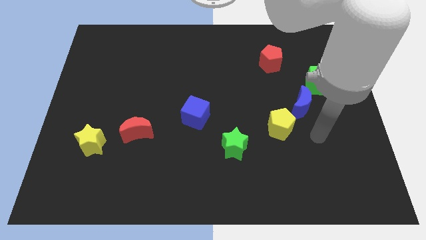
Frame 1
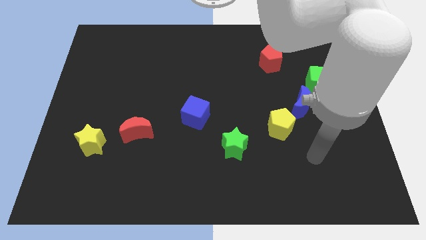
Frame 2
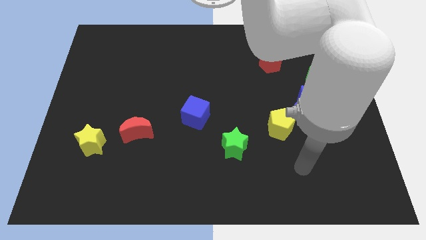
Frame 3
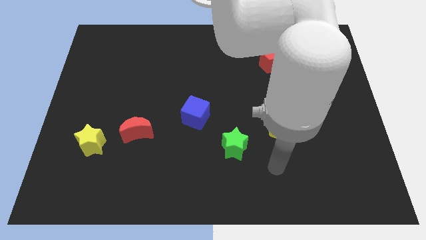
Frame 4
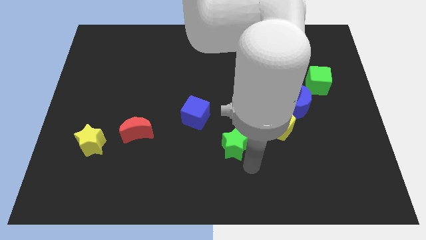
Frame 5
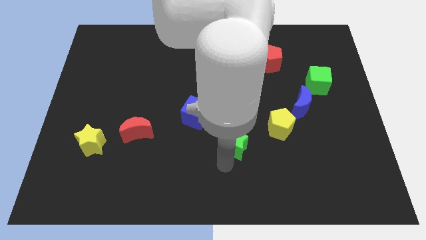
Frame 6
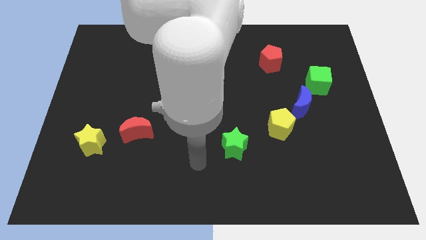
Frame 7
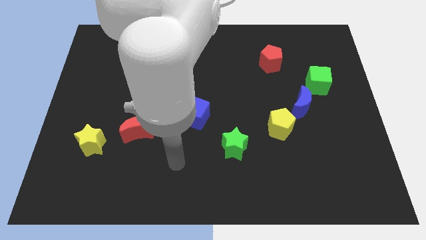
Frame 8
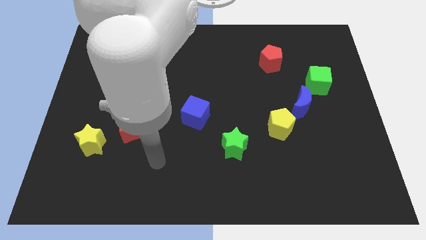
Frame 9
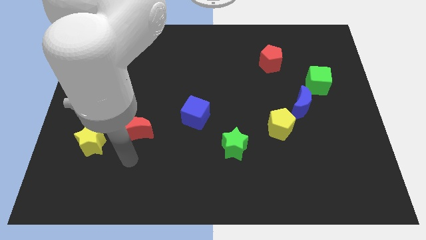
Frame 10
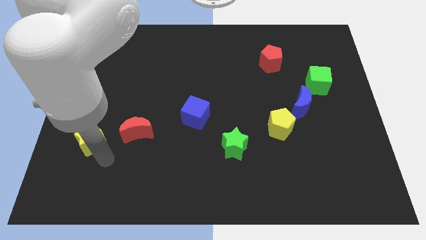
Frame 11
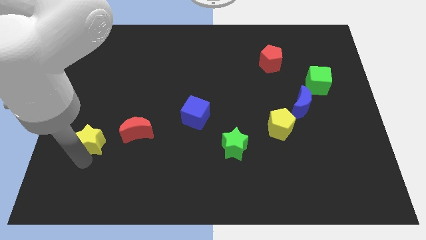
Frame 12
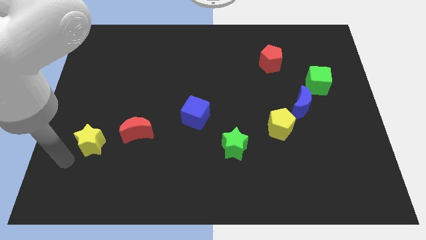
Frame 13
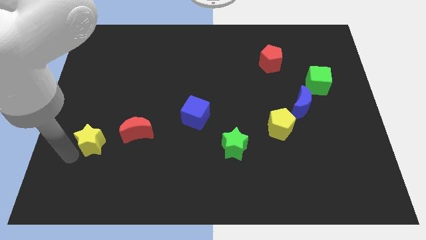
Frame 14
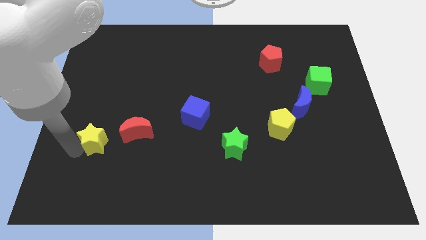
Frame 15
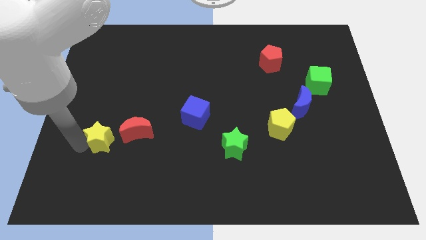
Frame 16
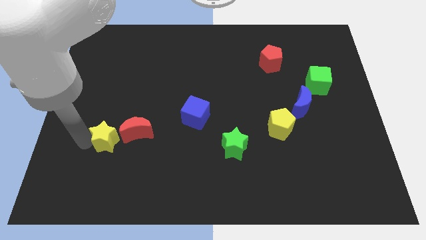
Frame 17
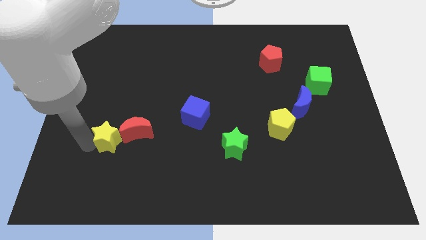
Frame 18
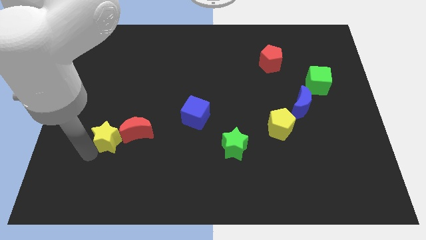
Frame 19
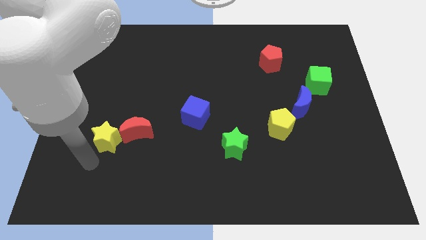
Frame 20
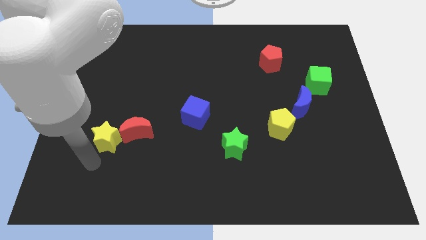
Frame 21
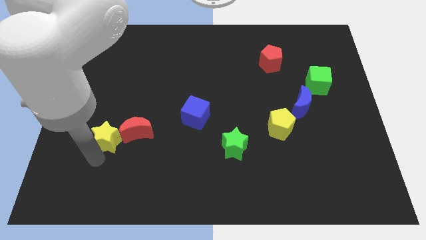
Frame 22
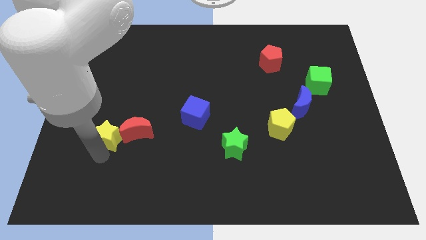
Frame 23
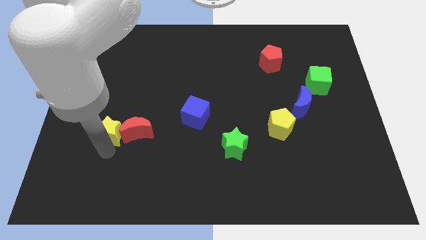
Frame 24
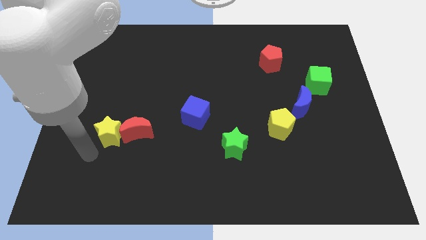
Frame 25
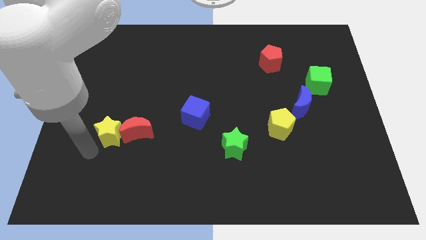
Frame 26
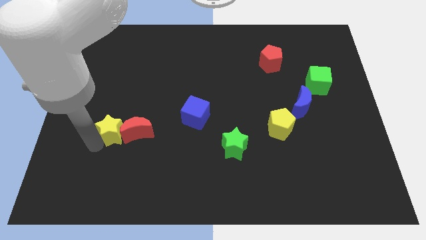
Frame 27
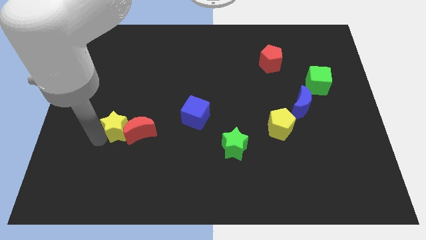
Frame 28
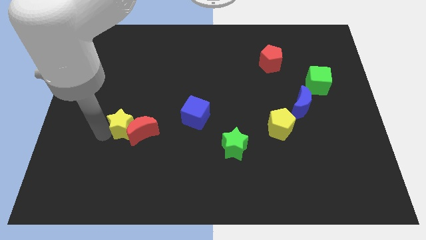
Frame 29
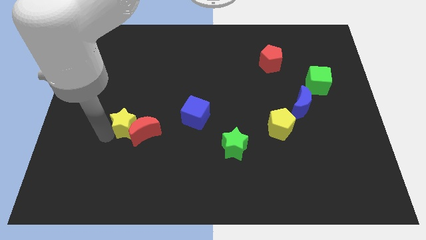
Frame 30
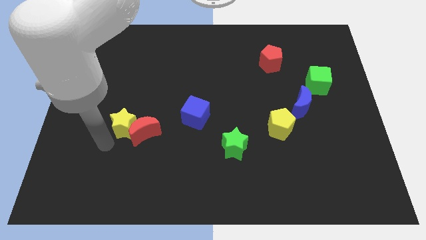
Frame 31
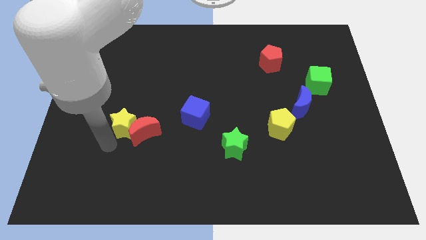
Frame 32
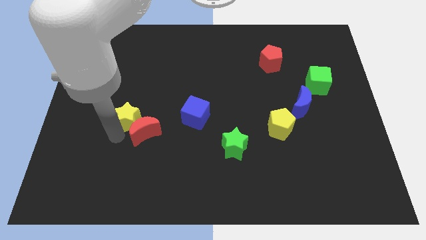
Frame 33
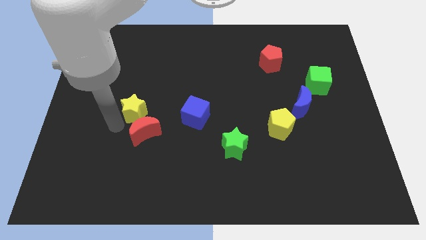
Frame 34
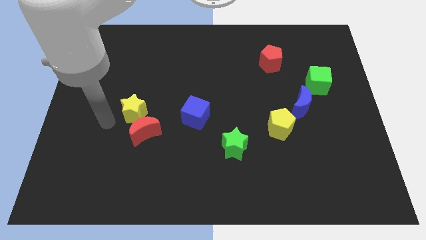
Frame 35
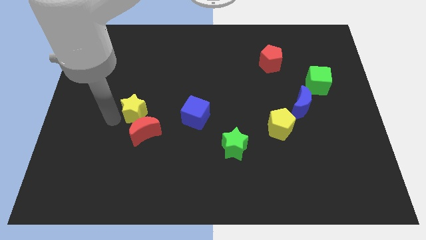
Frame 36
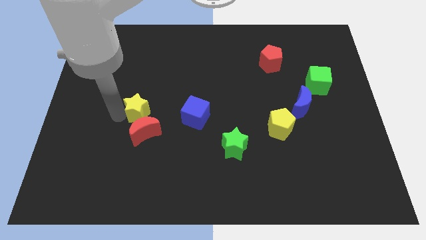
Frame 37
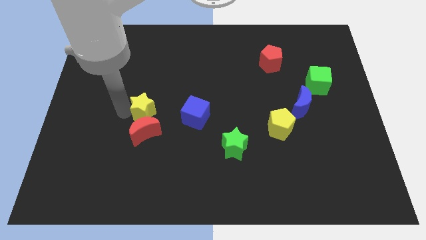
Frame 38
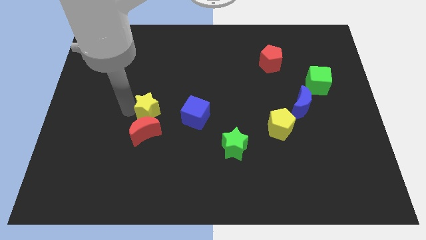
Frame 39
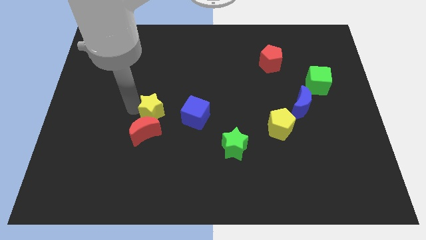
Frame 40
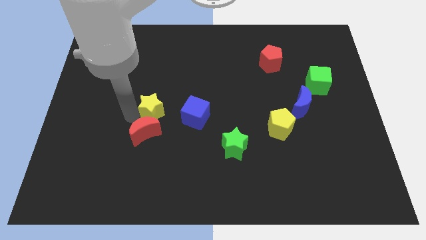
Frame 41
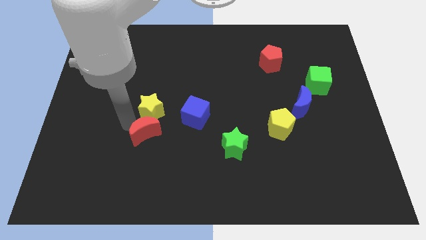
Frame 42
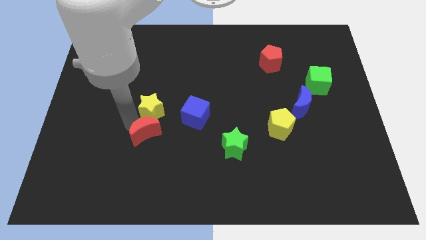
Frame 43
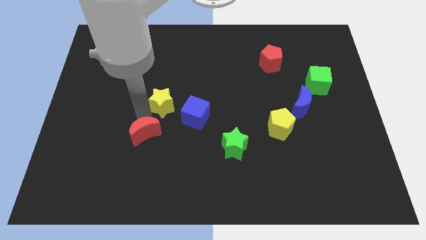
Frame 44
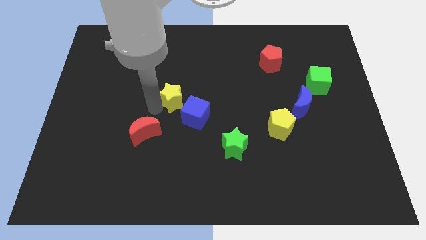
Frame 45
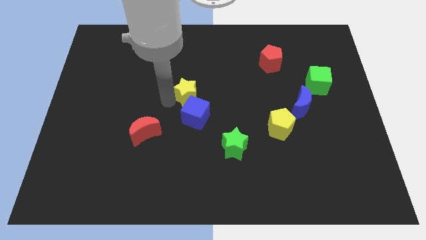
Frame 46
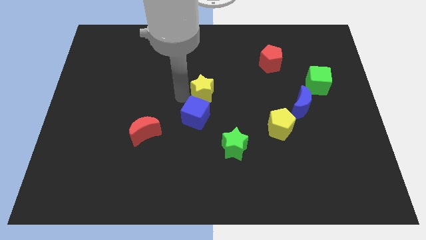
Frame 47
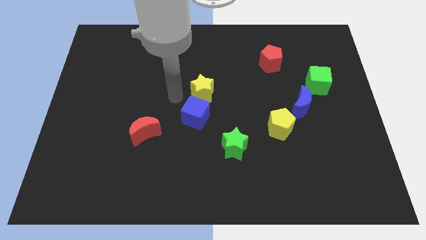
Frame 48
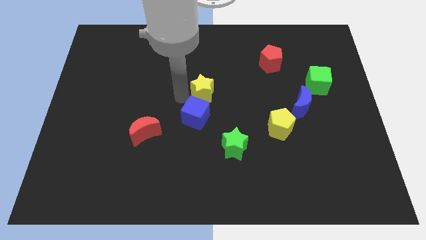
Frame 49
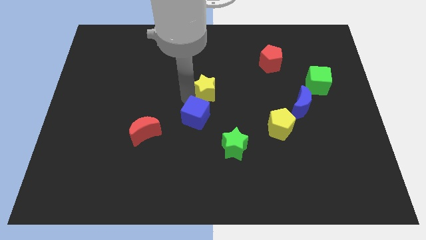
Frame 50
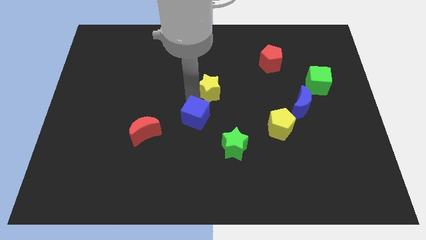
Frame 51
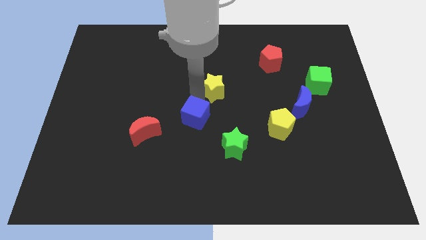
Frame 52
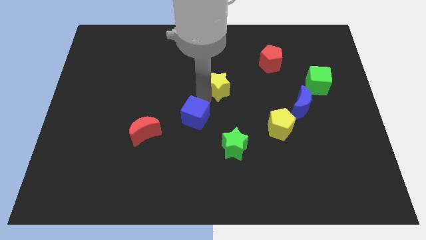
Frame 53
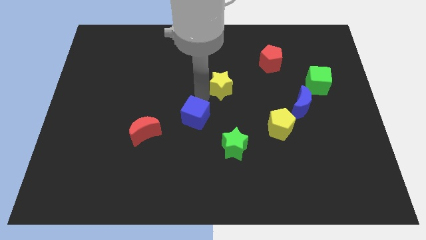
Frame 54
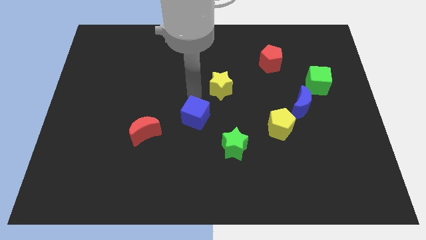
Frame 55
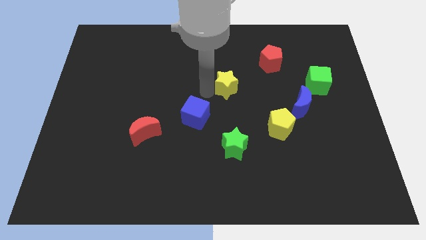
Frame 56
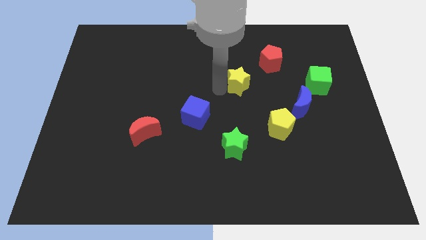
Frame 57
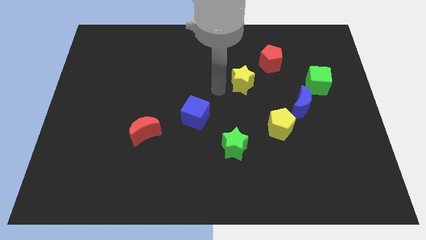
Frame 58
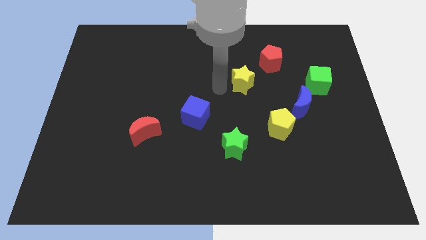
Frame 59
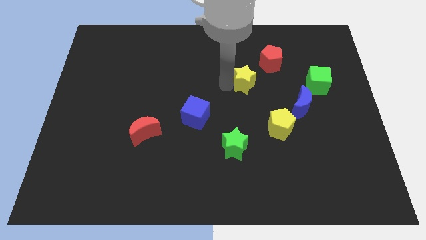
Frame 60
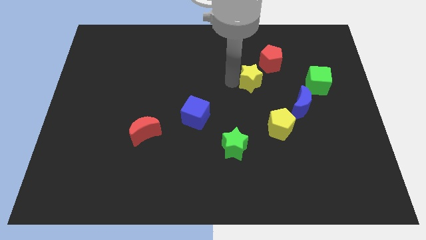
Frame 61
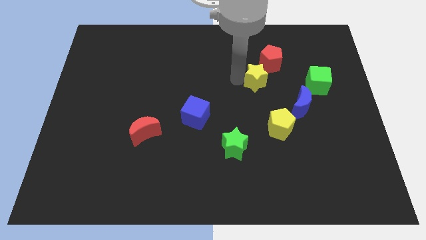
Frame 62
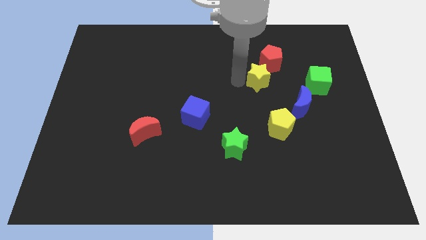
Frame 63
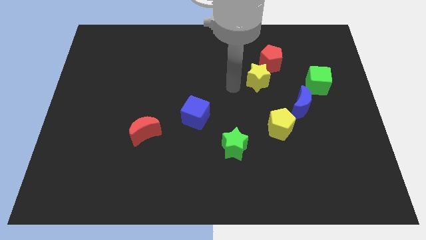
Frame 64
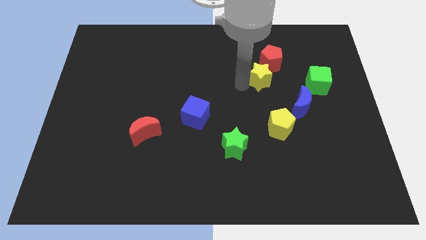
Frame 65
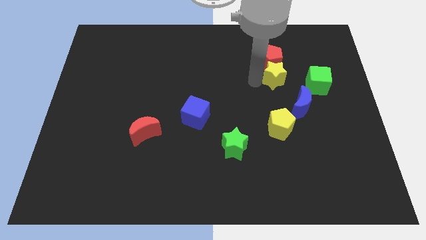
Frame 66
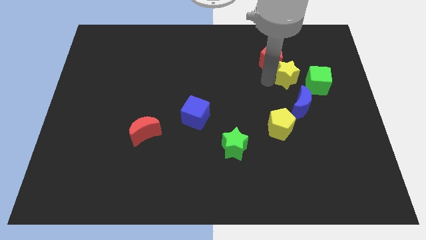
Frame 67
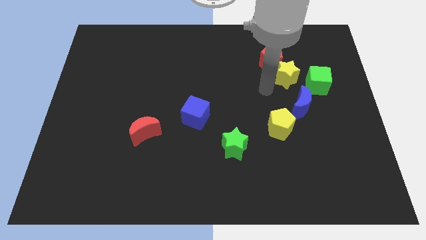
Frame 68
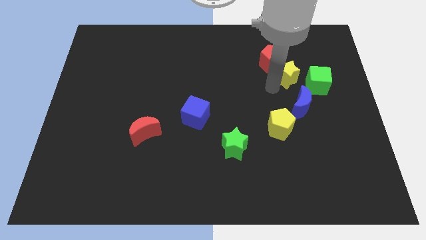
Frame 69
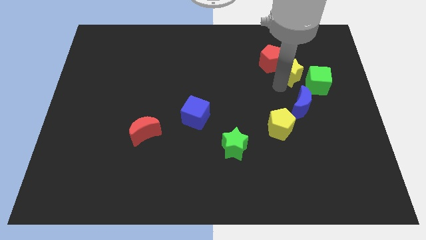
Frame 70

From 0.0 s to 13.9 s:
push the yellow star just right of the red pentagon
